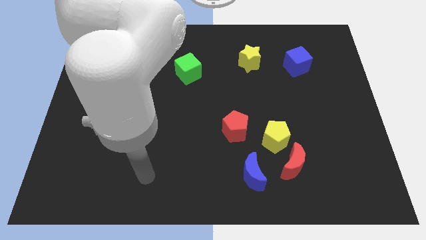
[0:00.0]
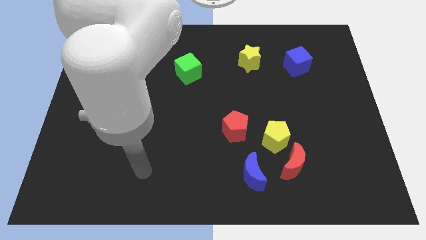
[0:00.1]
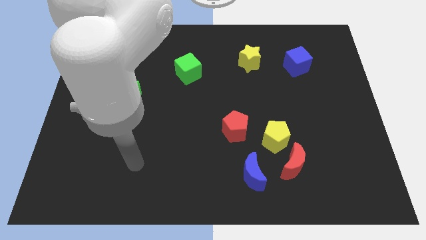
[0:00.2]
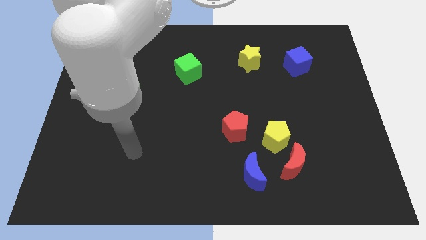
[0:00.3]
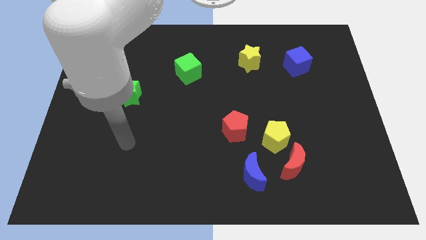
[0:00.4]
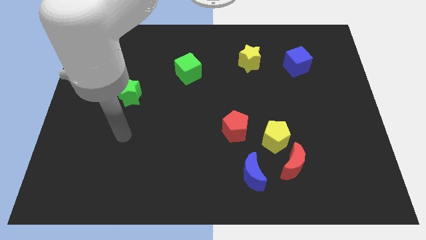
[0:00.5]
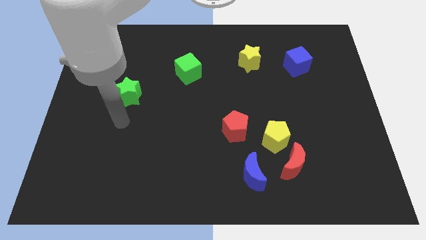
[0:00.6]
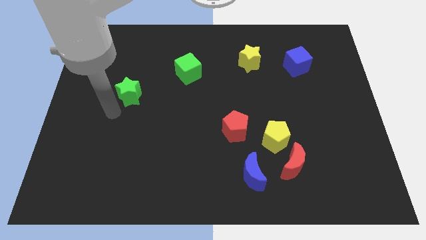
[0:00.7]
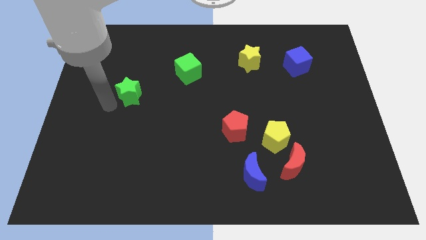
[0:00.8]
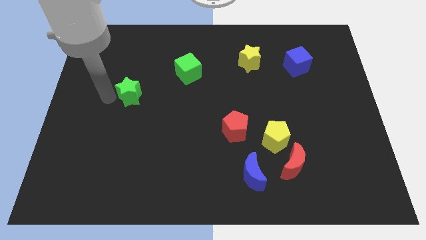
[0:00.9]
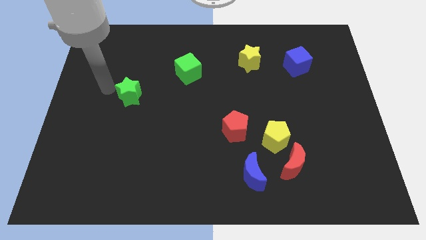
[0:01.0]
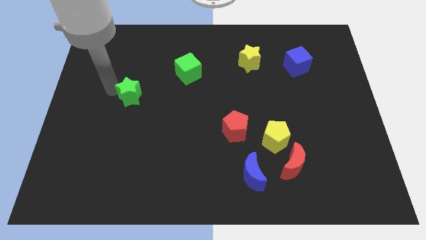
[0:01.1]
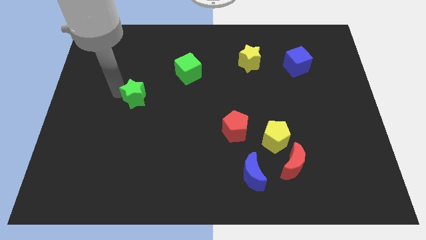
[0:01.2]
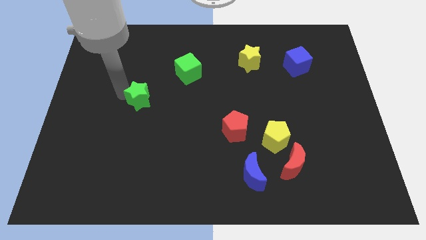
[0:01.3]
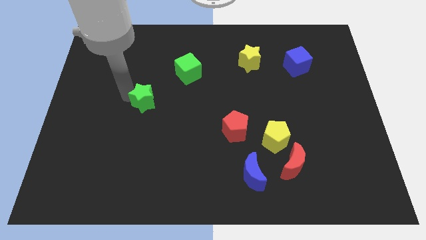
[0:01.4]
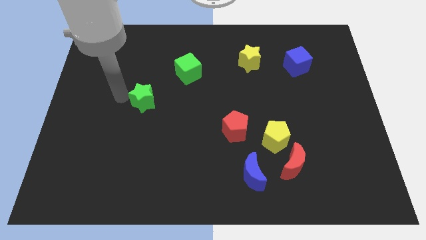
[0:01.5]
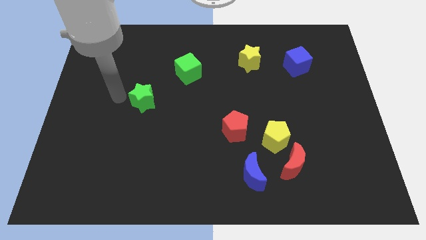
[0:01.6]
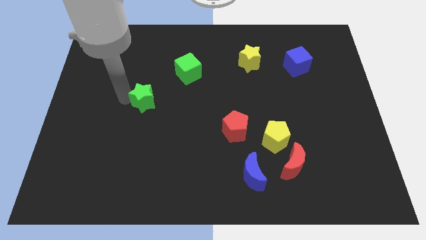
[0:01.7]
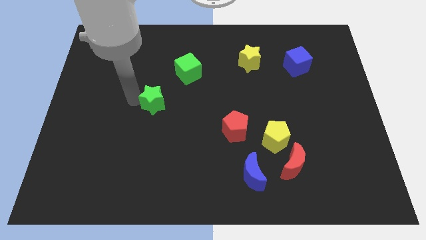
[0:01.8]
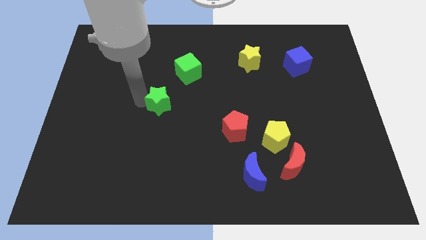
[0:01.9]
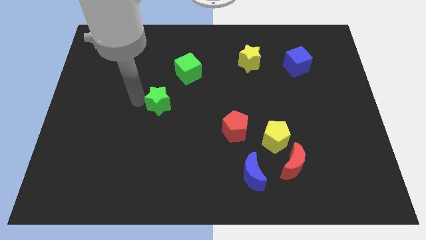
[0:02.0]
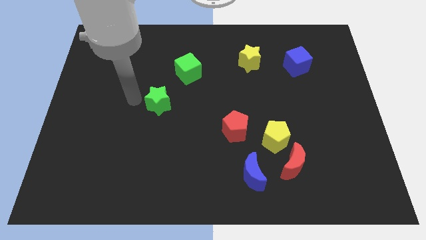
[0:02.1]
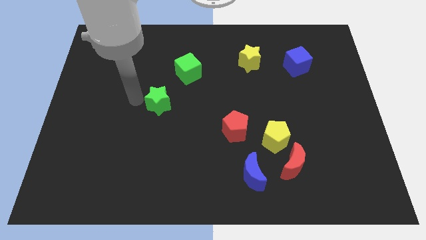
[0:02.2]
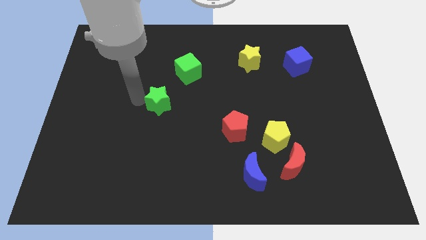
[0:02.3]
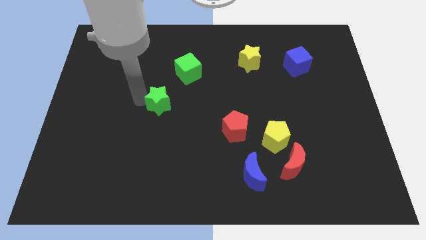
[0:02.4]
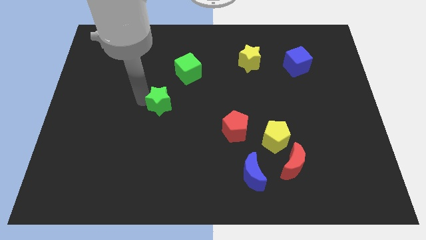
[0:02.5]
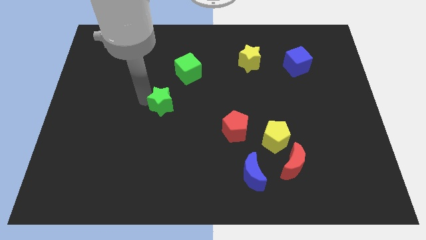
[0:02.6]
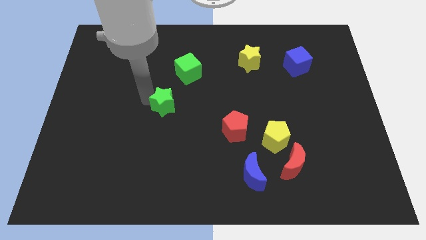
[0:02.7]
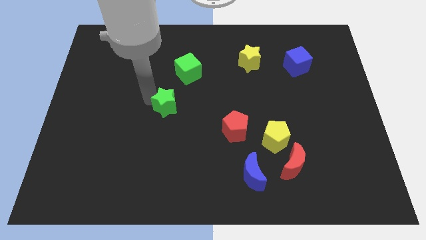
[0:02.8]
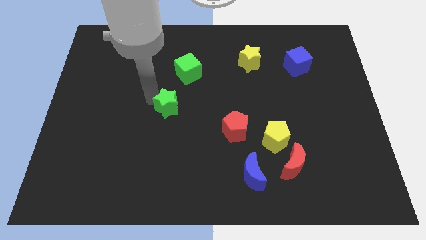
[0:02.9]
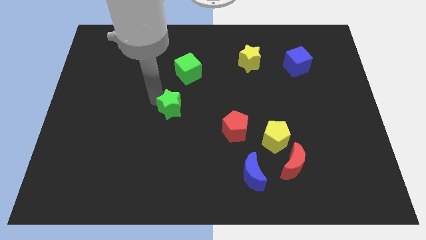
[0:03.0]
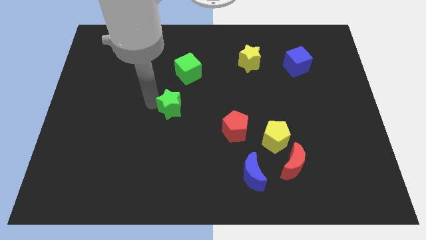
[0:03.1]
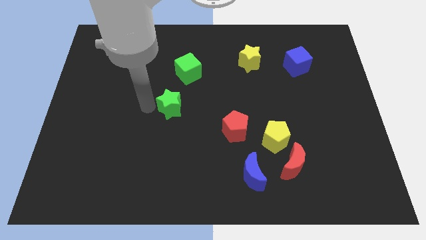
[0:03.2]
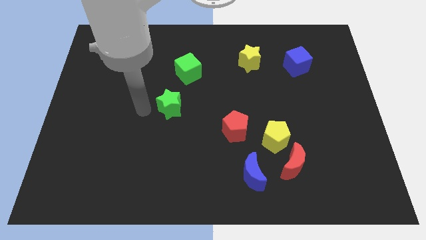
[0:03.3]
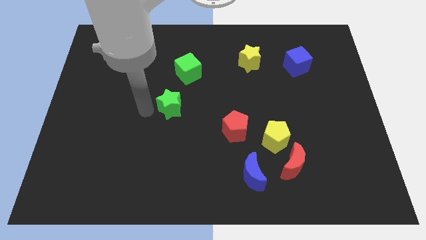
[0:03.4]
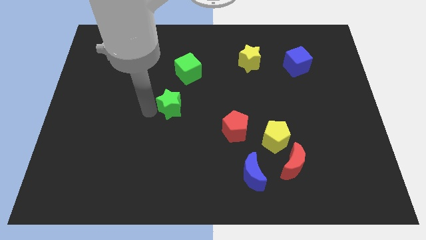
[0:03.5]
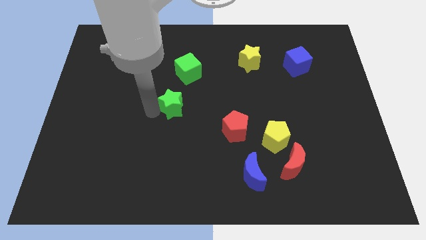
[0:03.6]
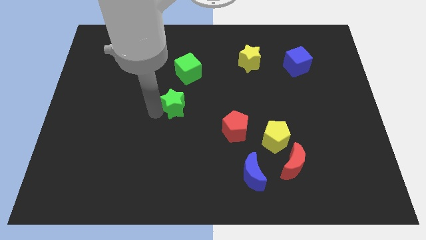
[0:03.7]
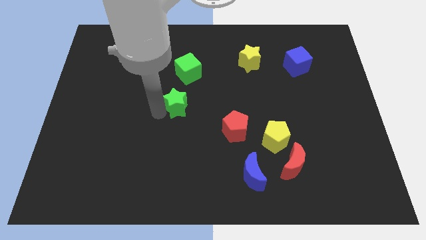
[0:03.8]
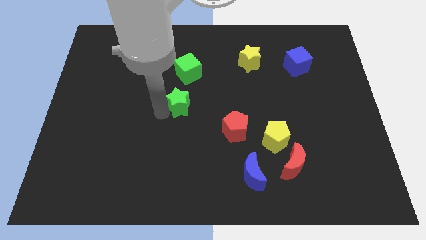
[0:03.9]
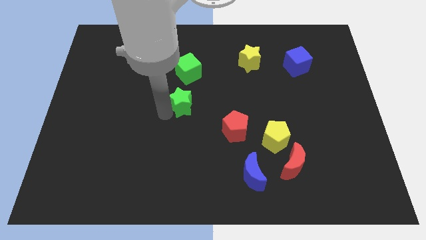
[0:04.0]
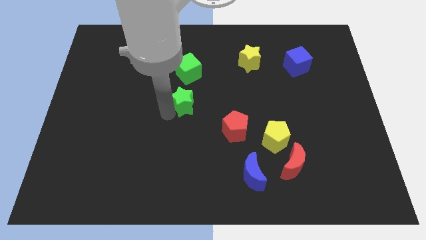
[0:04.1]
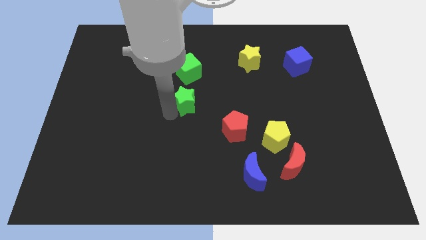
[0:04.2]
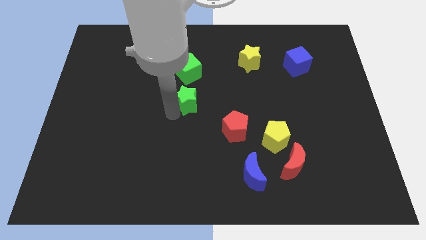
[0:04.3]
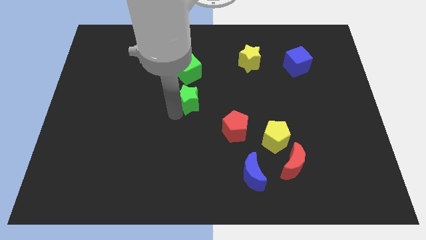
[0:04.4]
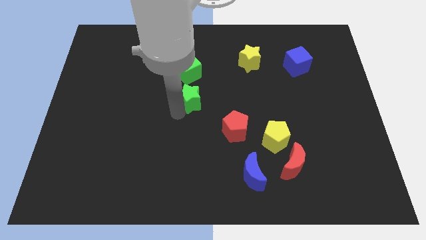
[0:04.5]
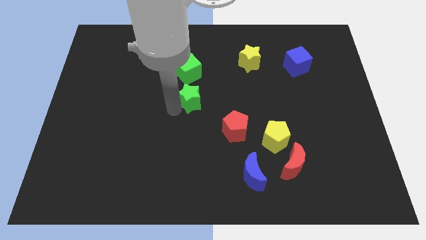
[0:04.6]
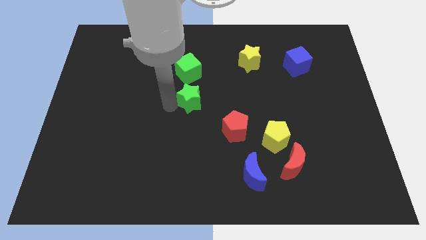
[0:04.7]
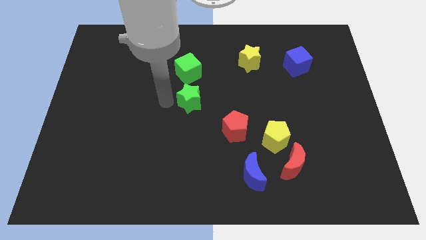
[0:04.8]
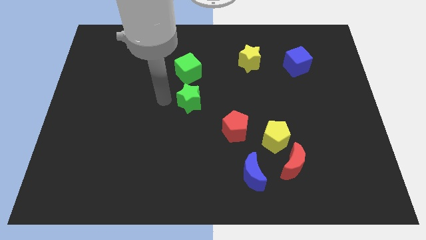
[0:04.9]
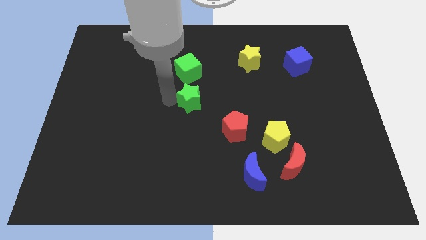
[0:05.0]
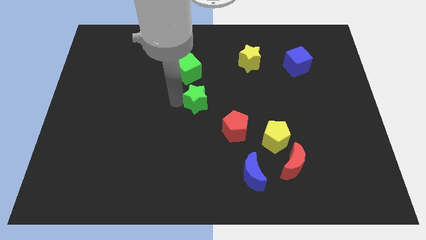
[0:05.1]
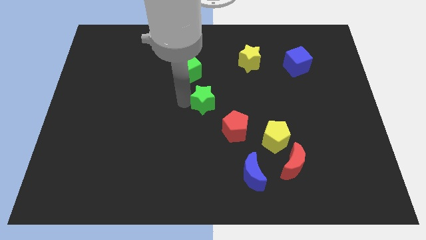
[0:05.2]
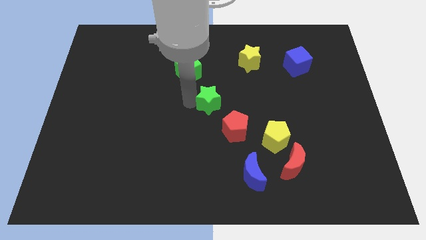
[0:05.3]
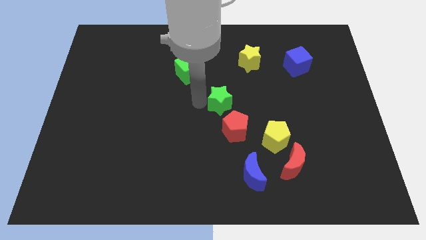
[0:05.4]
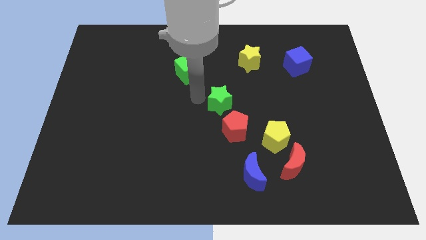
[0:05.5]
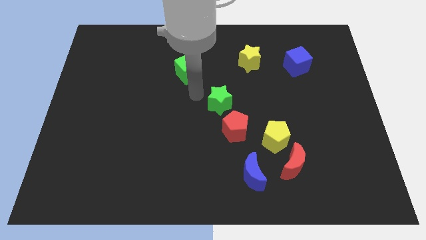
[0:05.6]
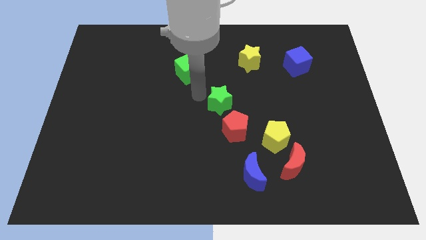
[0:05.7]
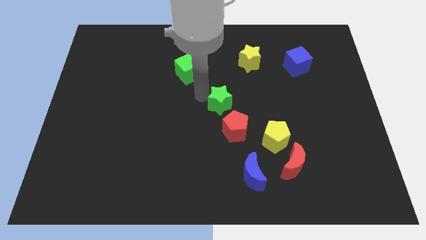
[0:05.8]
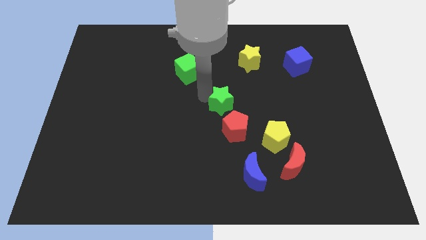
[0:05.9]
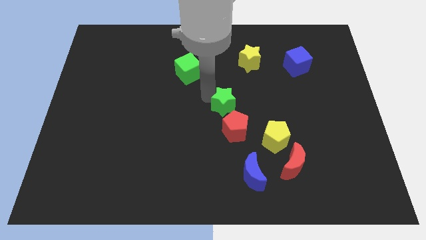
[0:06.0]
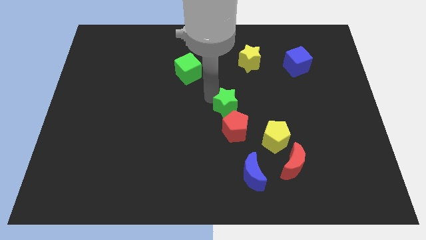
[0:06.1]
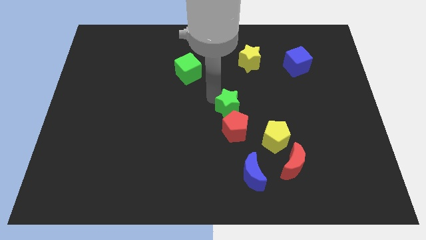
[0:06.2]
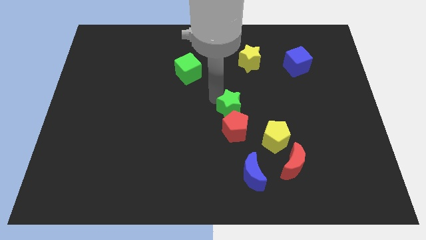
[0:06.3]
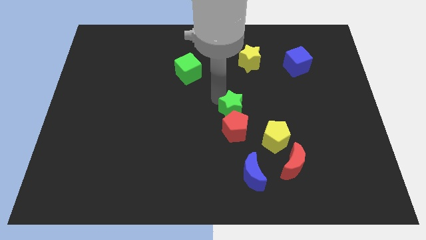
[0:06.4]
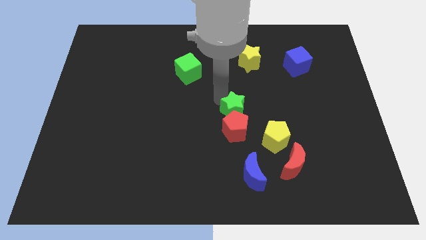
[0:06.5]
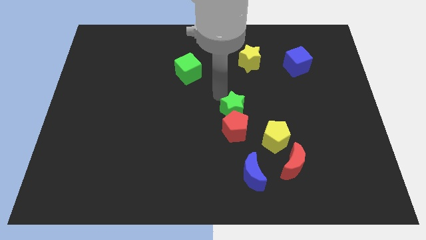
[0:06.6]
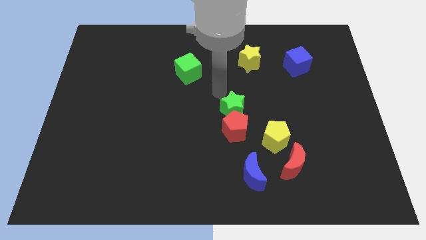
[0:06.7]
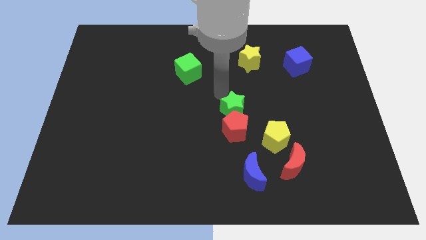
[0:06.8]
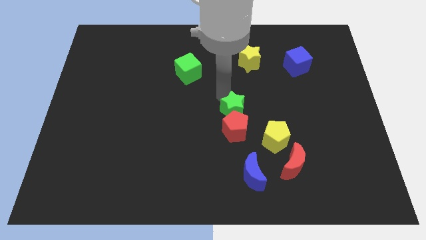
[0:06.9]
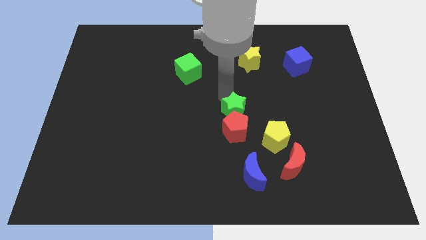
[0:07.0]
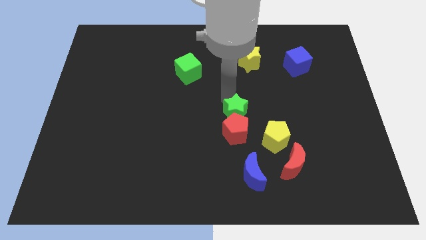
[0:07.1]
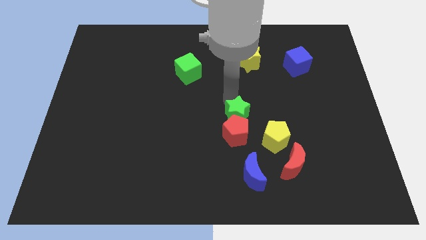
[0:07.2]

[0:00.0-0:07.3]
push the green star to the top of the blue moon
